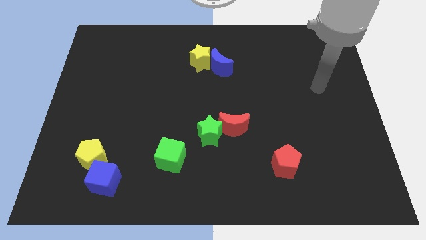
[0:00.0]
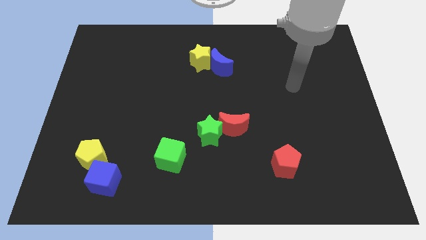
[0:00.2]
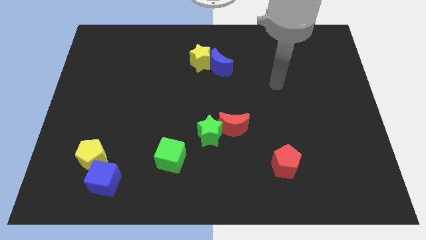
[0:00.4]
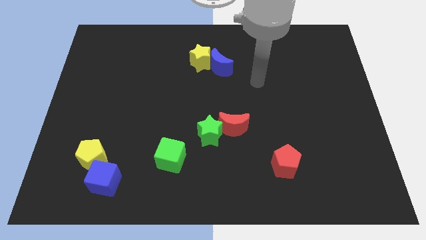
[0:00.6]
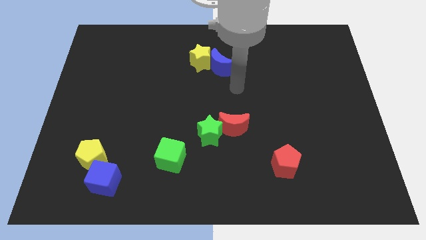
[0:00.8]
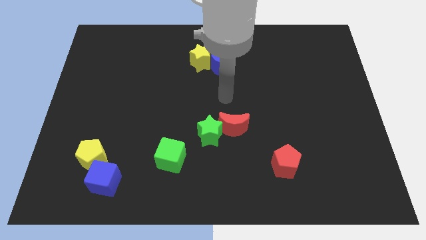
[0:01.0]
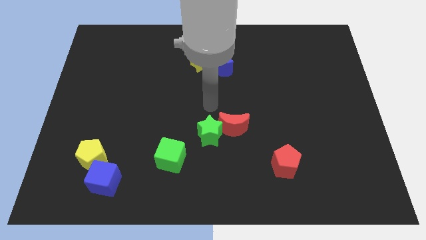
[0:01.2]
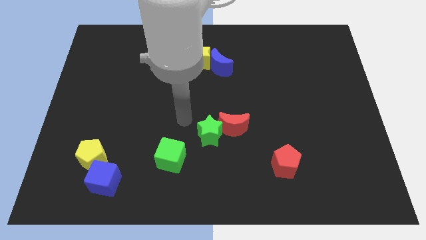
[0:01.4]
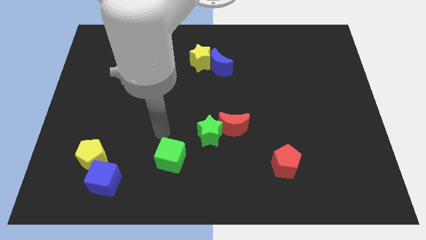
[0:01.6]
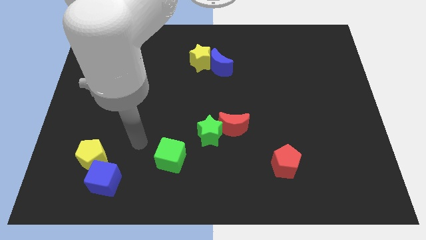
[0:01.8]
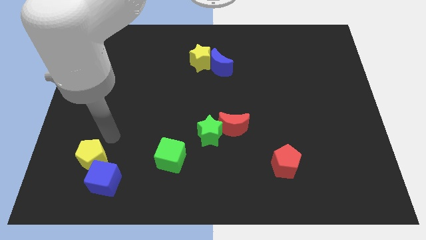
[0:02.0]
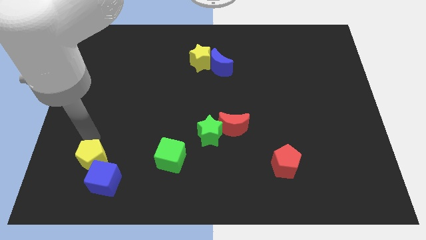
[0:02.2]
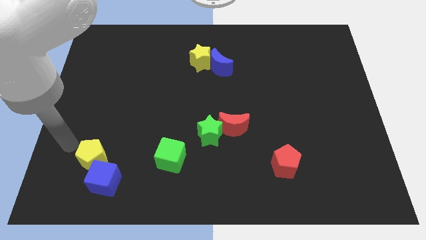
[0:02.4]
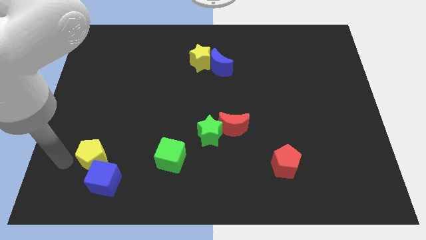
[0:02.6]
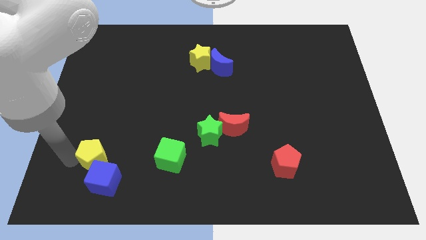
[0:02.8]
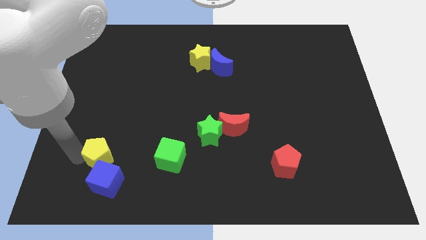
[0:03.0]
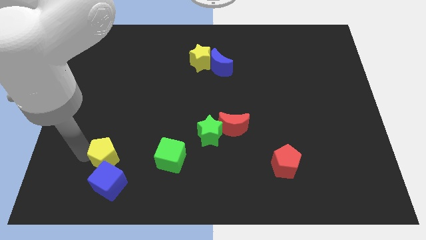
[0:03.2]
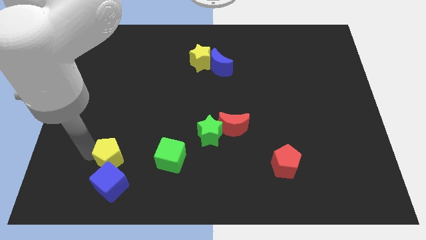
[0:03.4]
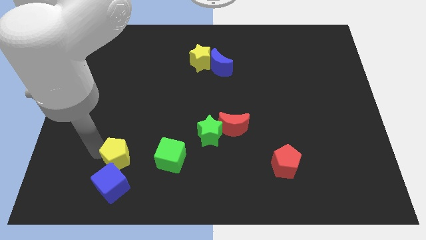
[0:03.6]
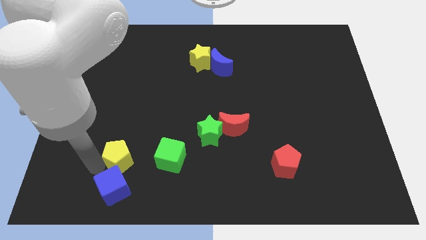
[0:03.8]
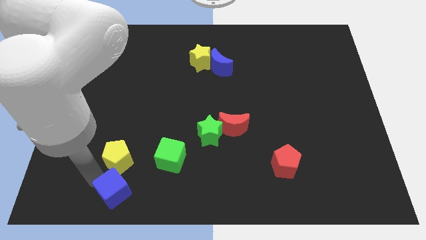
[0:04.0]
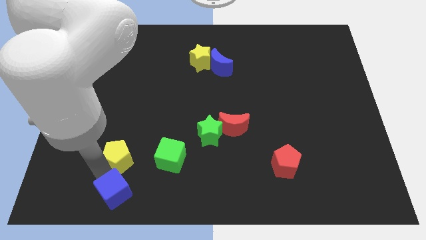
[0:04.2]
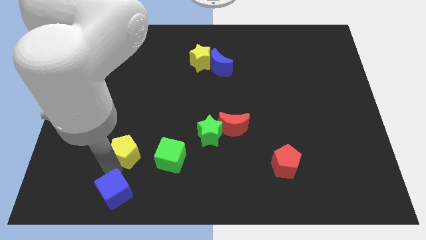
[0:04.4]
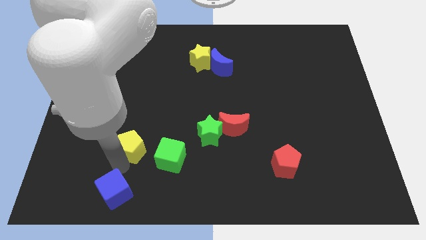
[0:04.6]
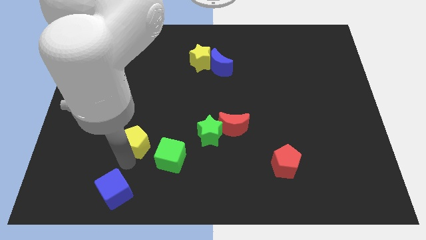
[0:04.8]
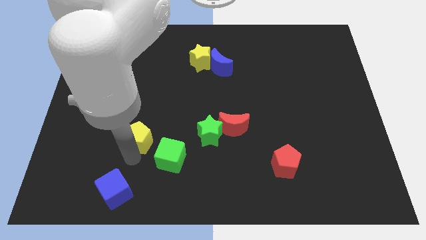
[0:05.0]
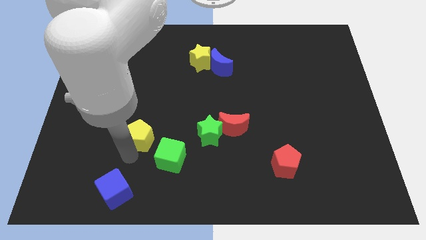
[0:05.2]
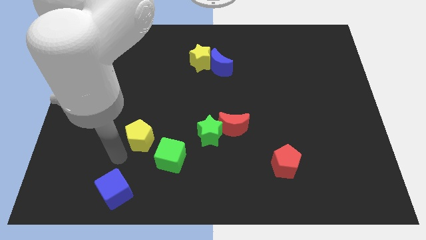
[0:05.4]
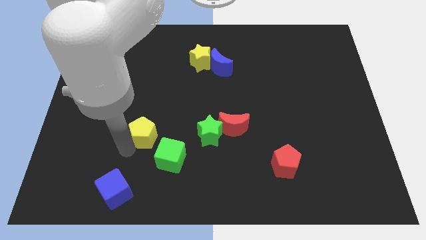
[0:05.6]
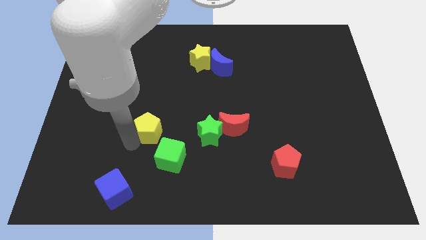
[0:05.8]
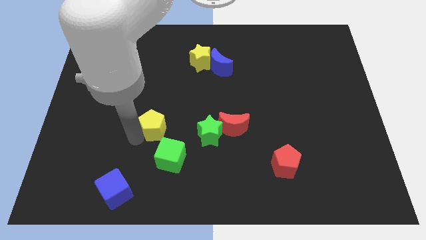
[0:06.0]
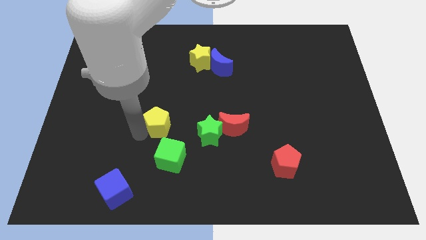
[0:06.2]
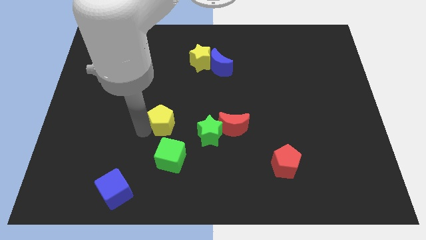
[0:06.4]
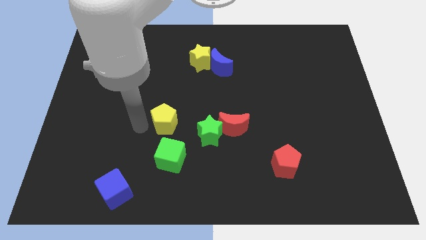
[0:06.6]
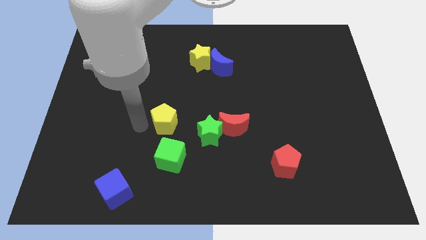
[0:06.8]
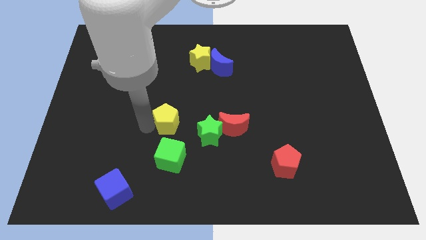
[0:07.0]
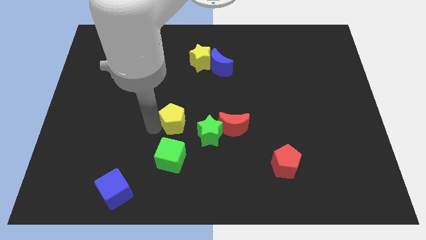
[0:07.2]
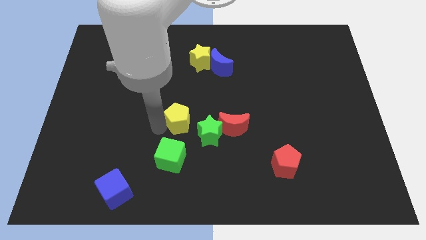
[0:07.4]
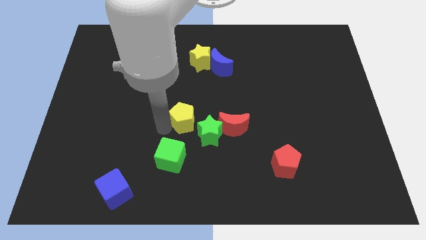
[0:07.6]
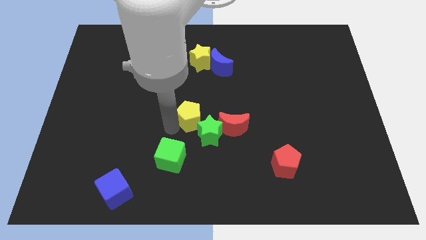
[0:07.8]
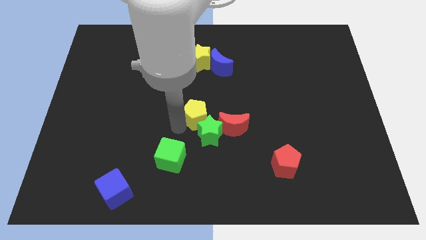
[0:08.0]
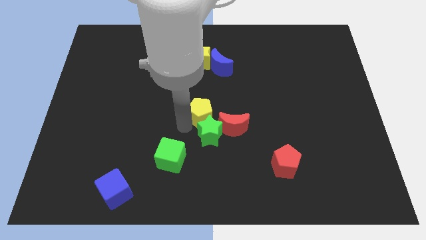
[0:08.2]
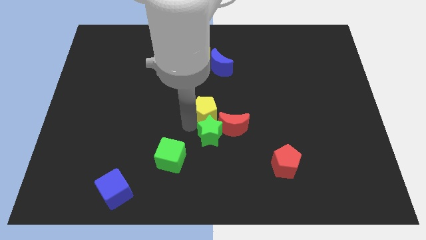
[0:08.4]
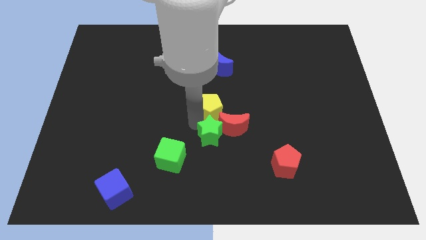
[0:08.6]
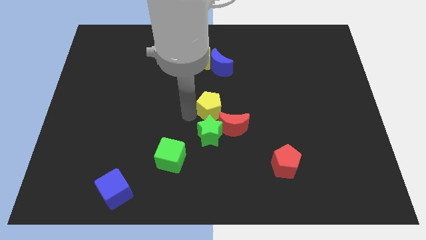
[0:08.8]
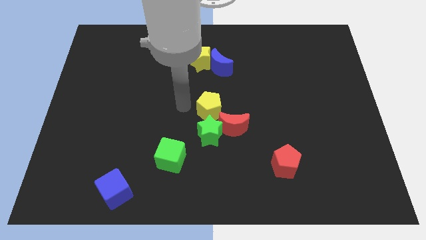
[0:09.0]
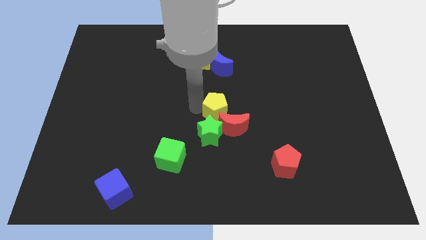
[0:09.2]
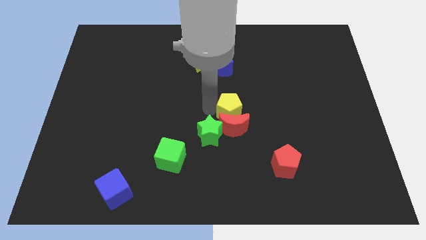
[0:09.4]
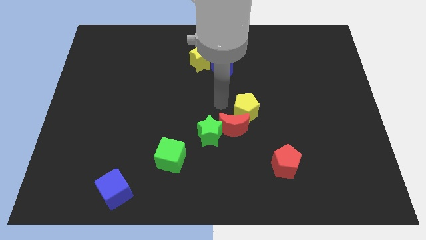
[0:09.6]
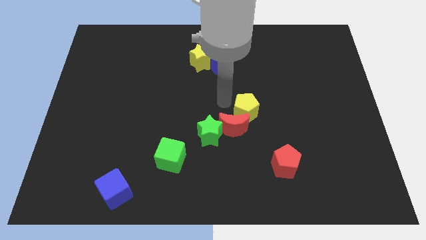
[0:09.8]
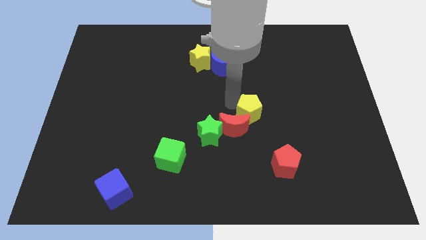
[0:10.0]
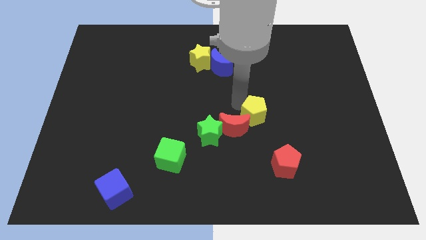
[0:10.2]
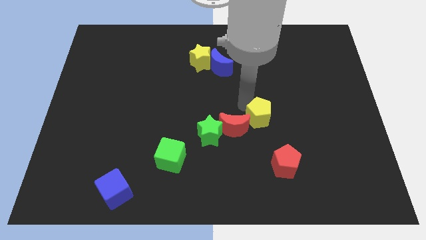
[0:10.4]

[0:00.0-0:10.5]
move the yellow pentagon to the top side of the red pentagon

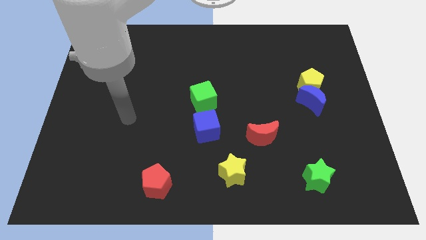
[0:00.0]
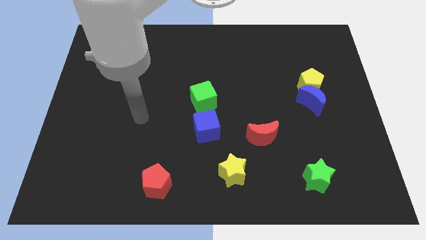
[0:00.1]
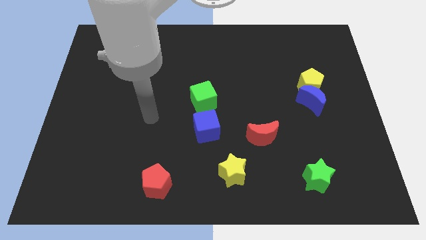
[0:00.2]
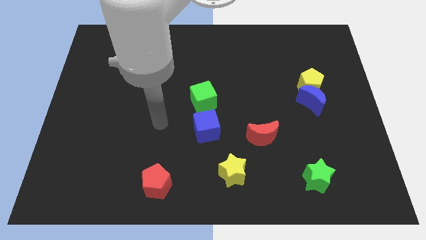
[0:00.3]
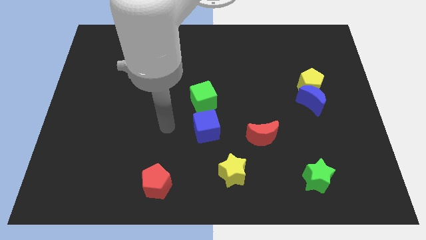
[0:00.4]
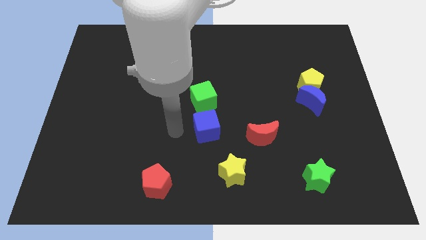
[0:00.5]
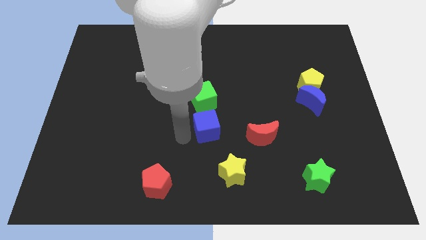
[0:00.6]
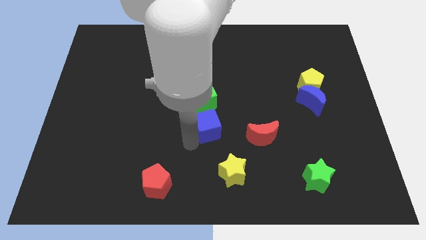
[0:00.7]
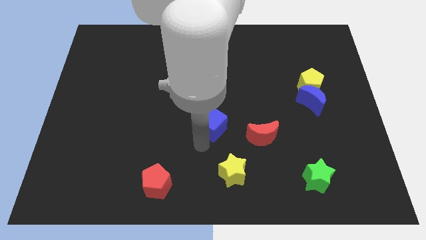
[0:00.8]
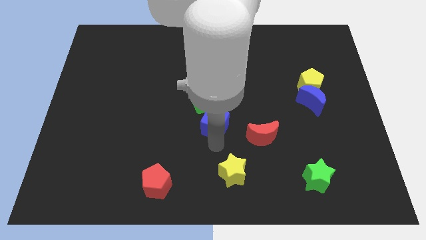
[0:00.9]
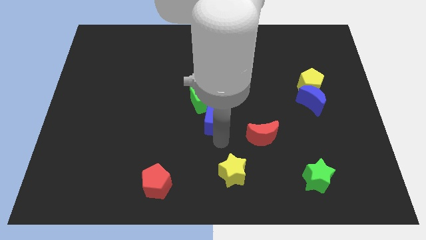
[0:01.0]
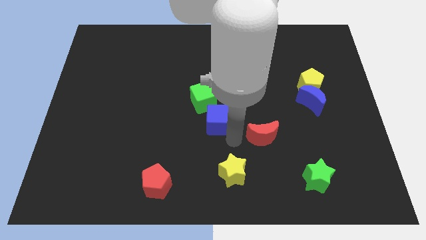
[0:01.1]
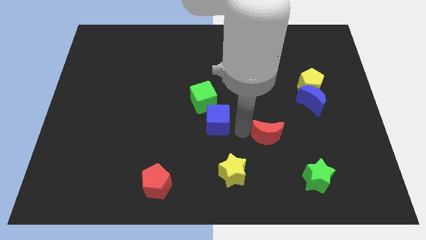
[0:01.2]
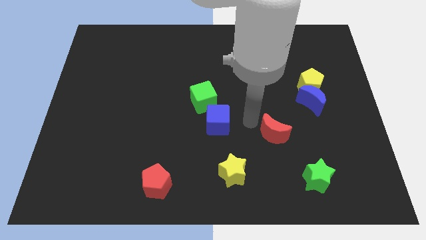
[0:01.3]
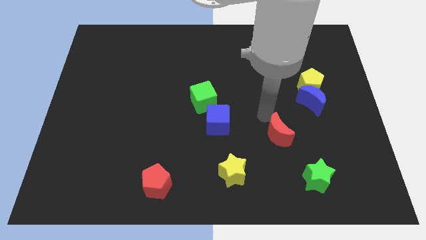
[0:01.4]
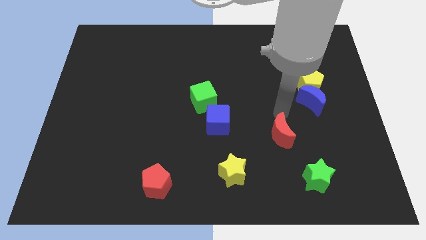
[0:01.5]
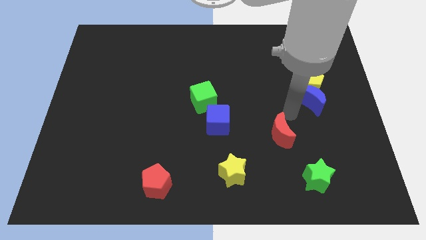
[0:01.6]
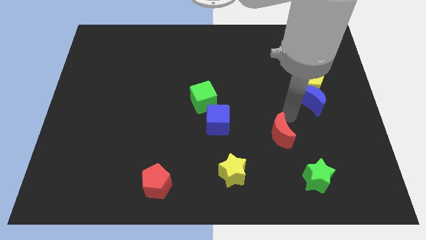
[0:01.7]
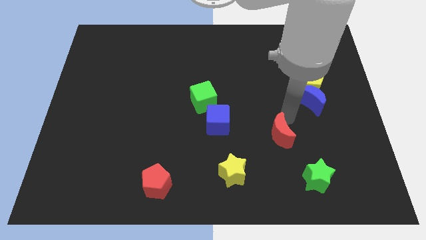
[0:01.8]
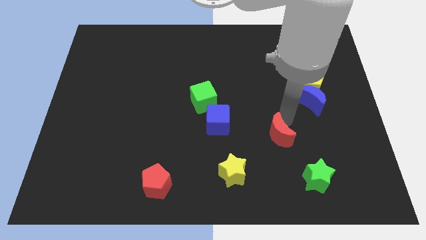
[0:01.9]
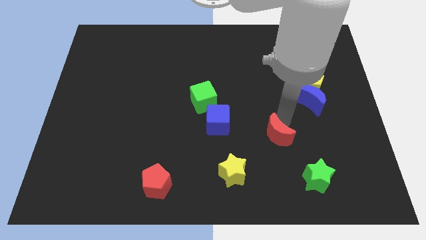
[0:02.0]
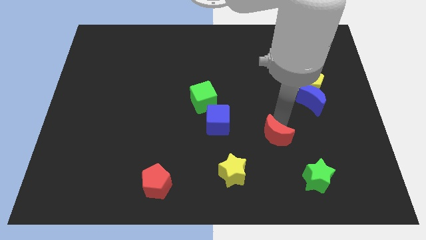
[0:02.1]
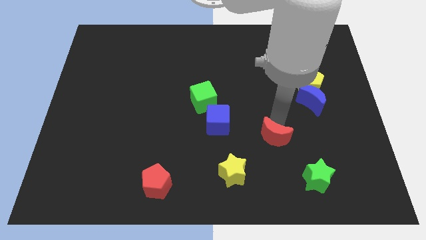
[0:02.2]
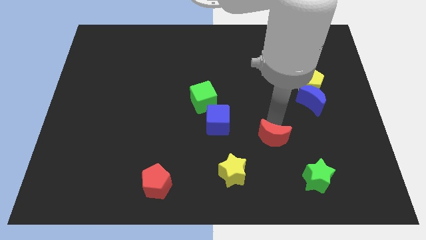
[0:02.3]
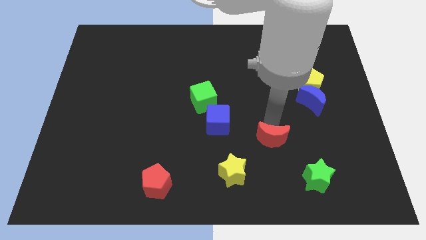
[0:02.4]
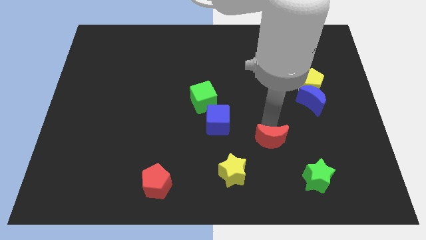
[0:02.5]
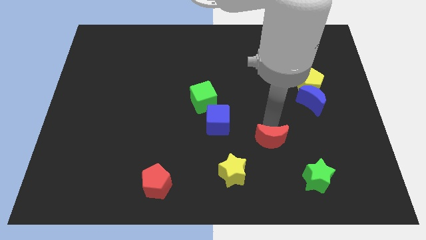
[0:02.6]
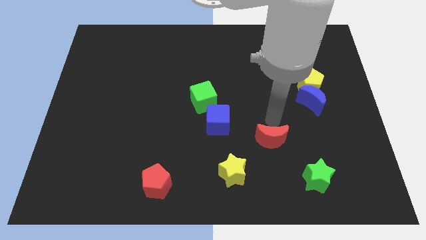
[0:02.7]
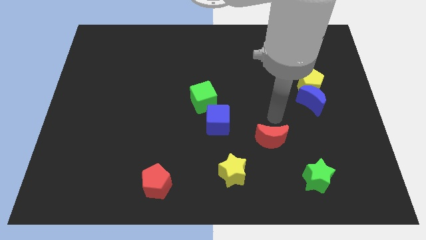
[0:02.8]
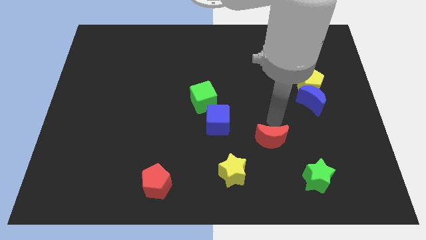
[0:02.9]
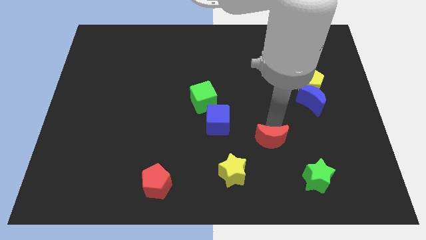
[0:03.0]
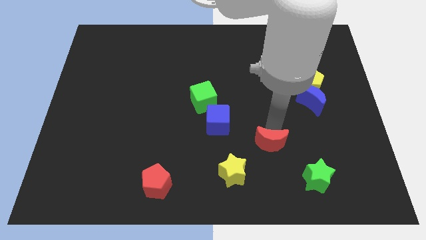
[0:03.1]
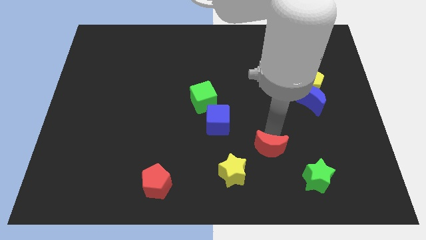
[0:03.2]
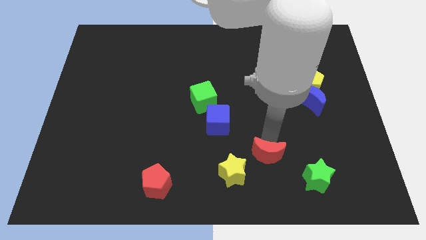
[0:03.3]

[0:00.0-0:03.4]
push the red moon right of the yellow star
